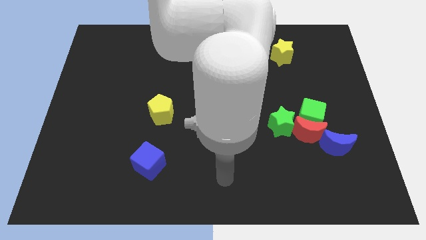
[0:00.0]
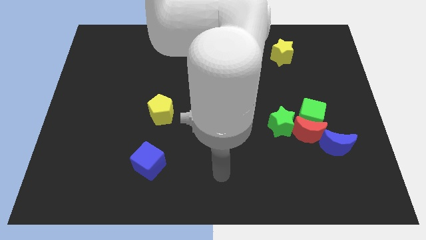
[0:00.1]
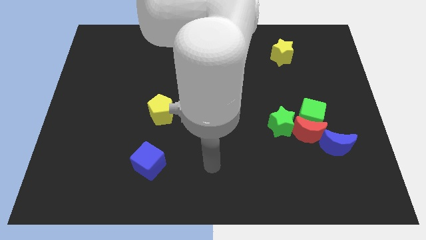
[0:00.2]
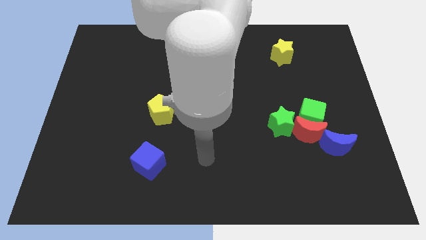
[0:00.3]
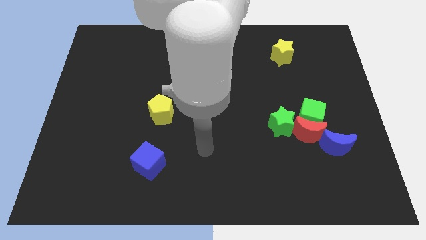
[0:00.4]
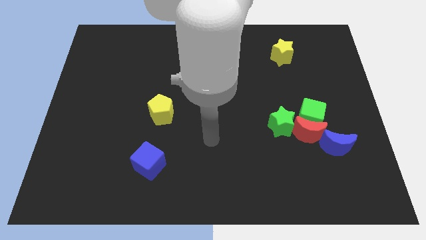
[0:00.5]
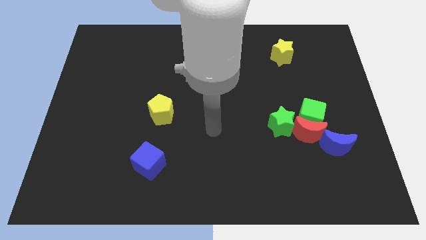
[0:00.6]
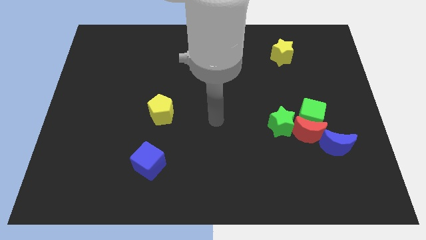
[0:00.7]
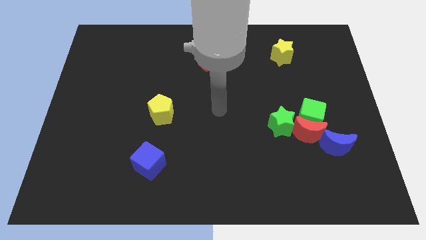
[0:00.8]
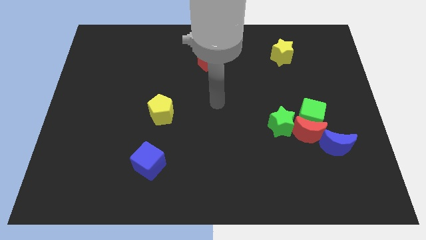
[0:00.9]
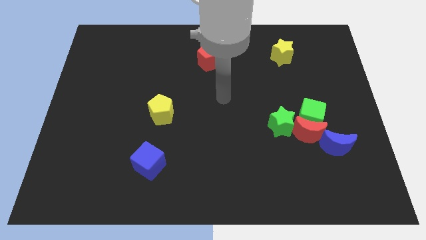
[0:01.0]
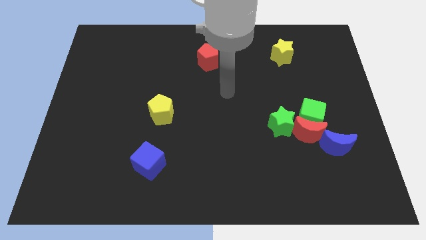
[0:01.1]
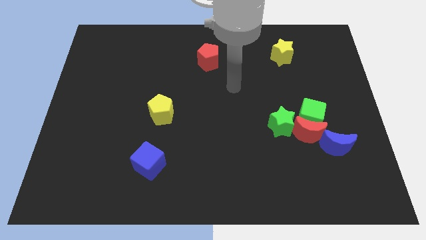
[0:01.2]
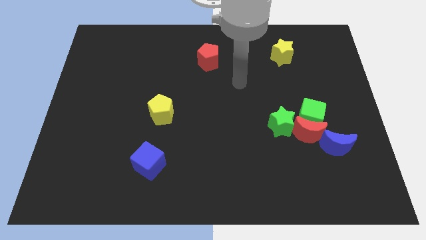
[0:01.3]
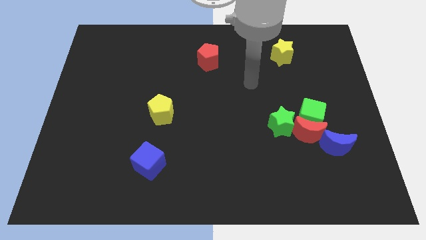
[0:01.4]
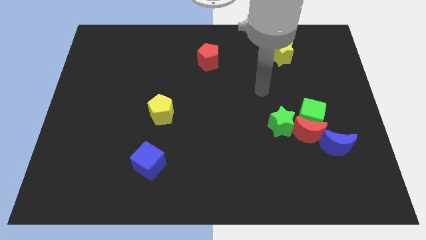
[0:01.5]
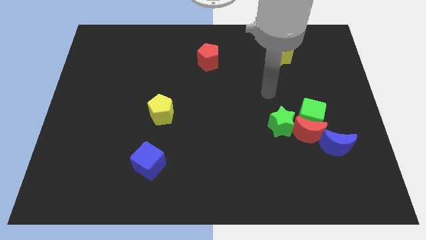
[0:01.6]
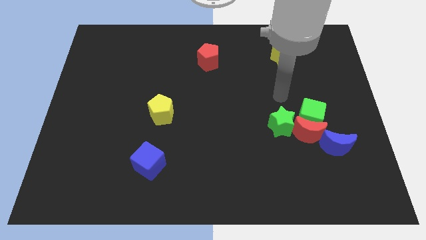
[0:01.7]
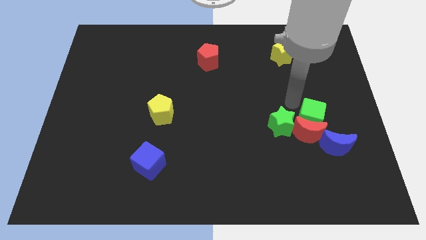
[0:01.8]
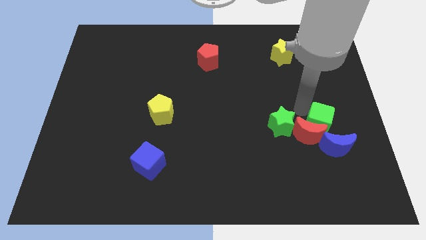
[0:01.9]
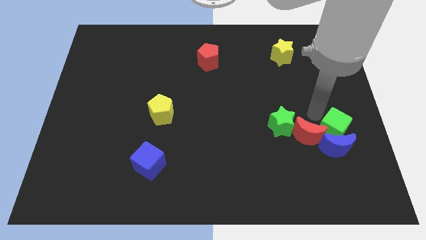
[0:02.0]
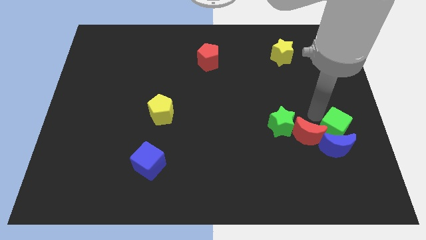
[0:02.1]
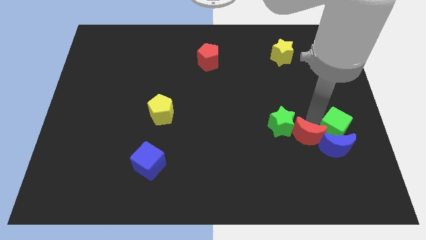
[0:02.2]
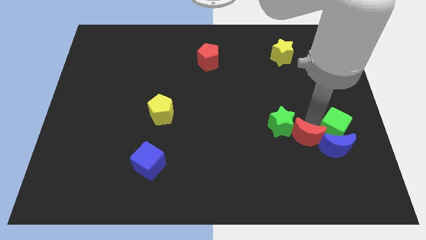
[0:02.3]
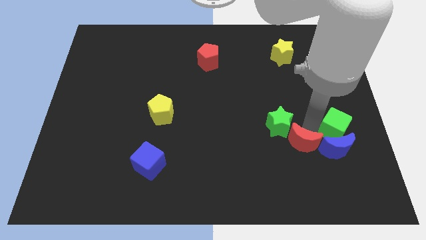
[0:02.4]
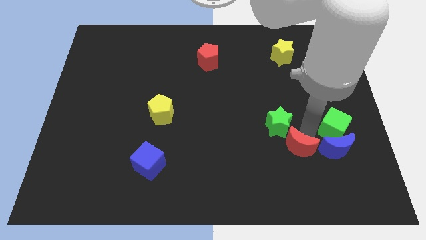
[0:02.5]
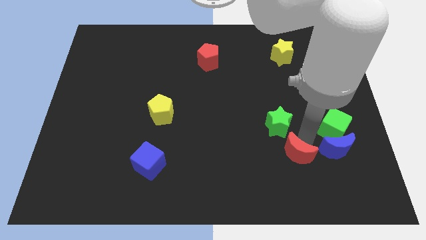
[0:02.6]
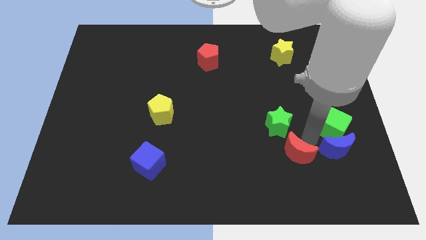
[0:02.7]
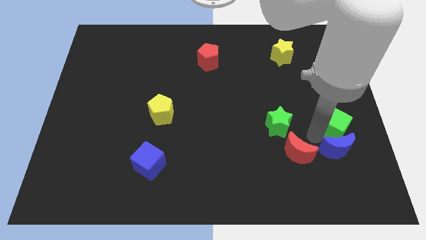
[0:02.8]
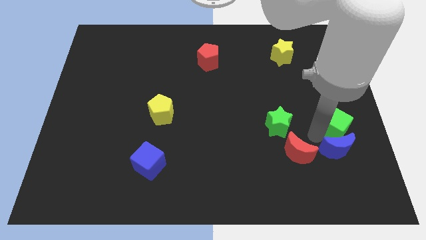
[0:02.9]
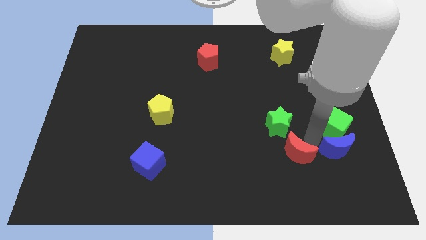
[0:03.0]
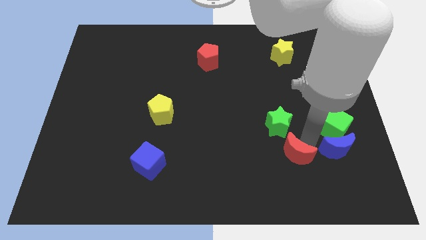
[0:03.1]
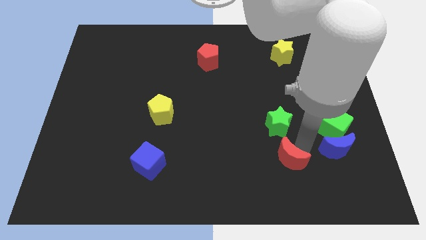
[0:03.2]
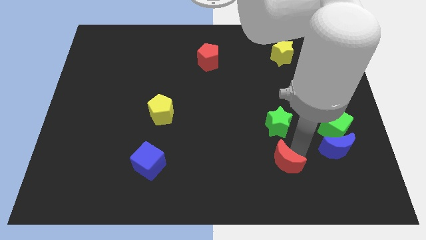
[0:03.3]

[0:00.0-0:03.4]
pull the red moon apart from the clump

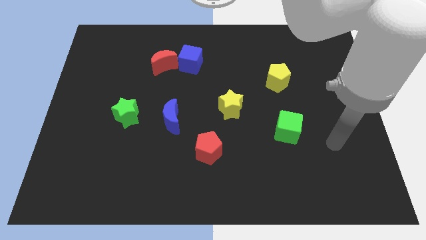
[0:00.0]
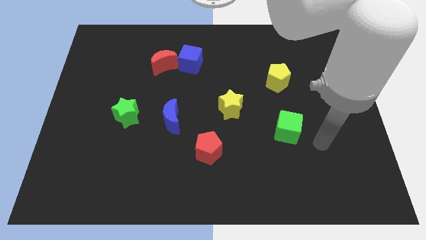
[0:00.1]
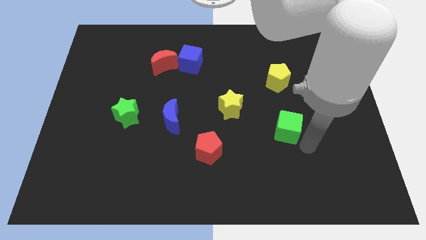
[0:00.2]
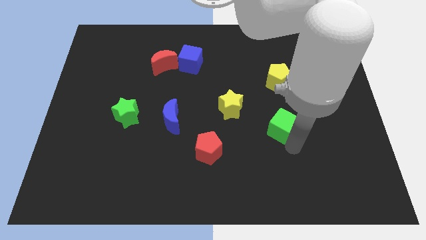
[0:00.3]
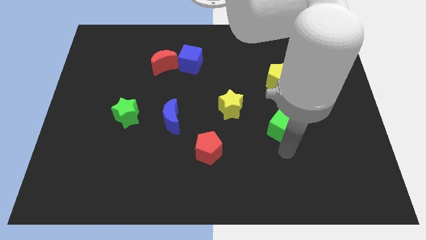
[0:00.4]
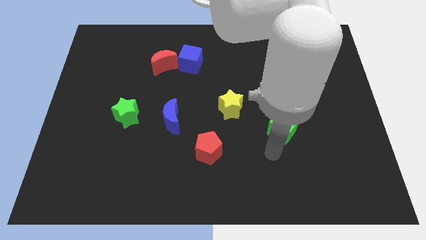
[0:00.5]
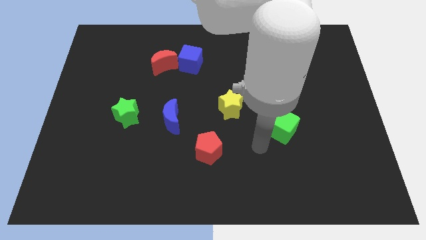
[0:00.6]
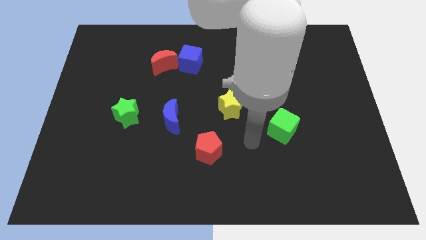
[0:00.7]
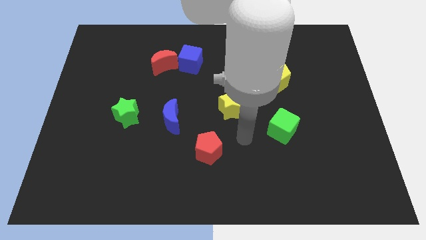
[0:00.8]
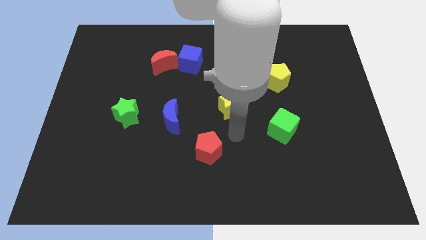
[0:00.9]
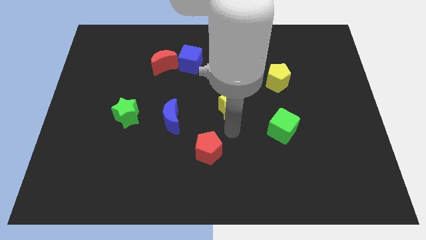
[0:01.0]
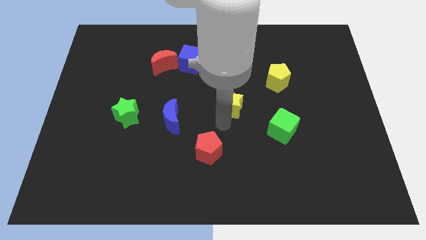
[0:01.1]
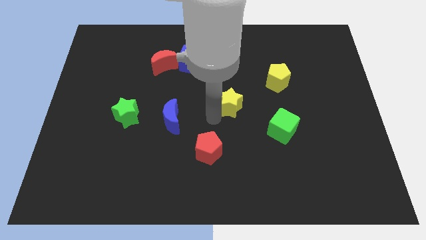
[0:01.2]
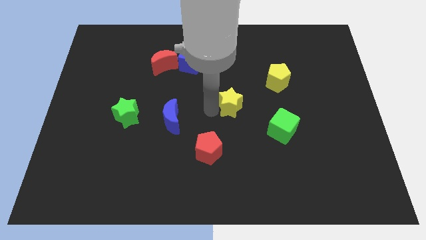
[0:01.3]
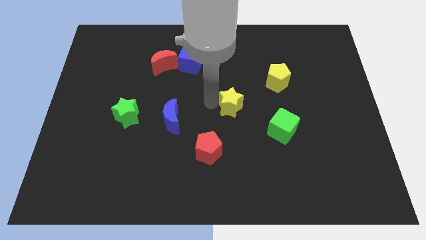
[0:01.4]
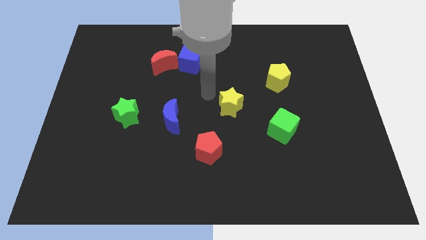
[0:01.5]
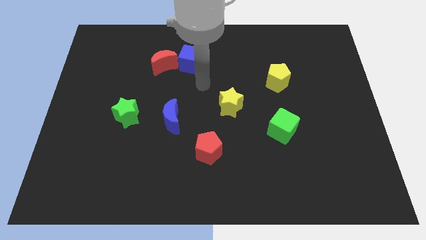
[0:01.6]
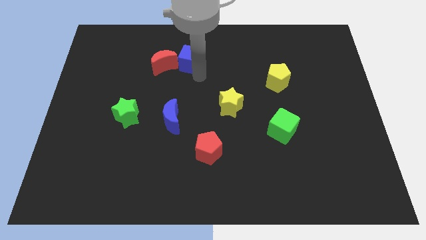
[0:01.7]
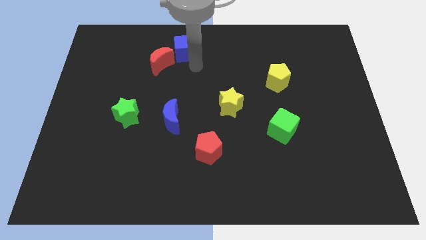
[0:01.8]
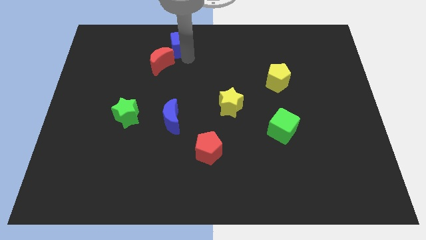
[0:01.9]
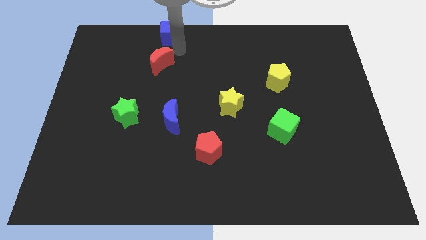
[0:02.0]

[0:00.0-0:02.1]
move the red moon away from the blue cube

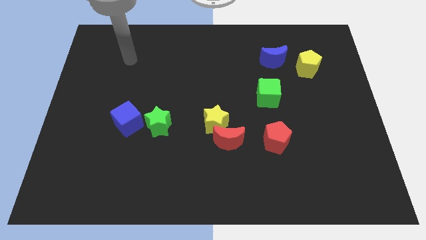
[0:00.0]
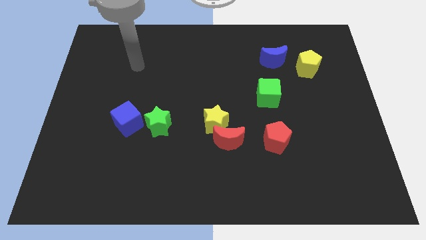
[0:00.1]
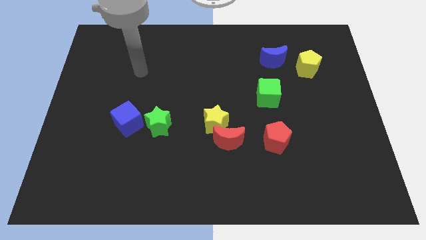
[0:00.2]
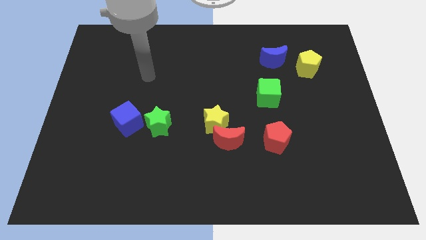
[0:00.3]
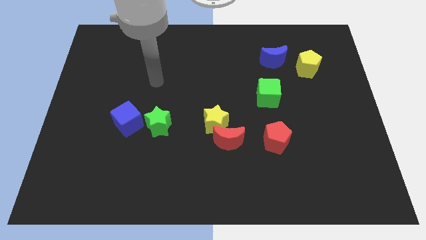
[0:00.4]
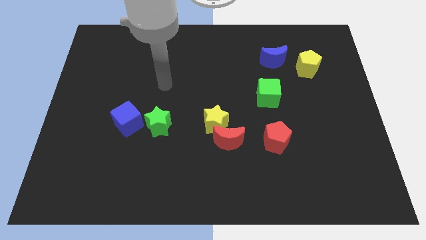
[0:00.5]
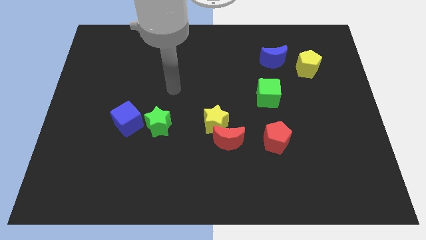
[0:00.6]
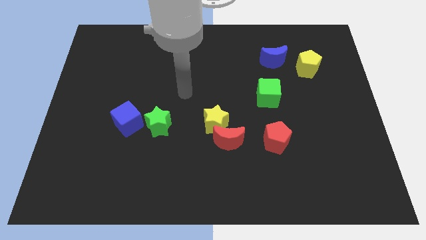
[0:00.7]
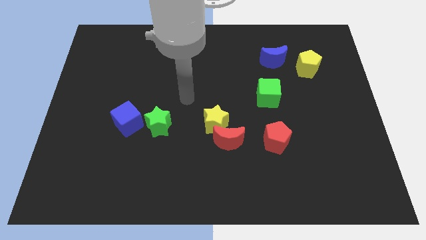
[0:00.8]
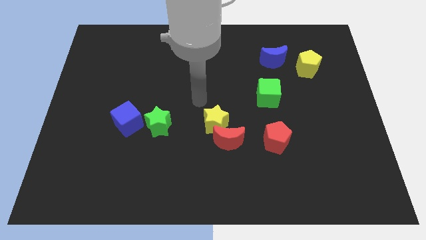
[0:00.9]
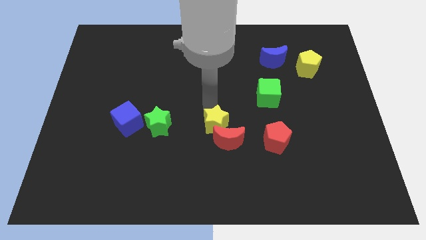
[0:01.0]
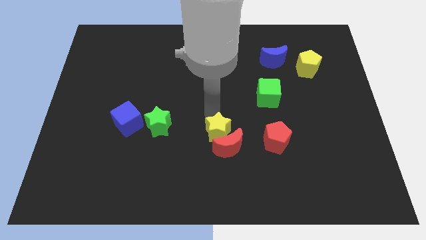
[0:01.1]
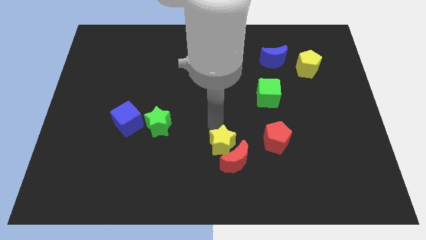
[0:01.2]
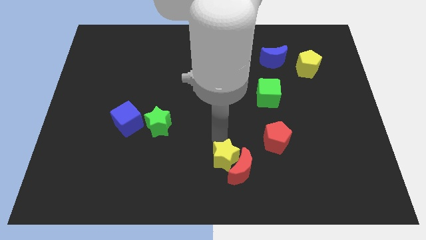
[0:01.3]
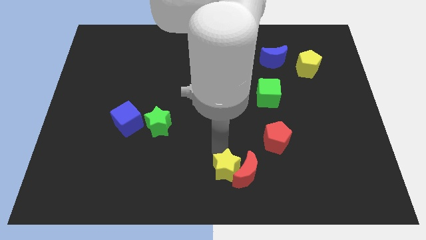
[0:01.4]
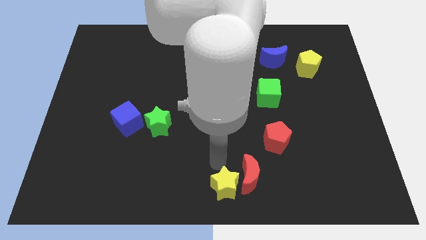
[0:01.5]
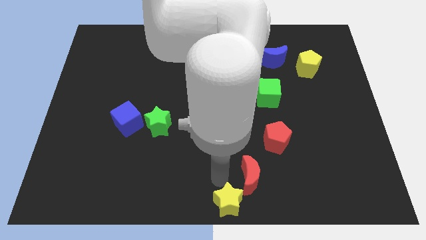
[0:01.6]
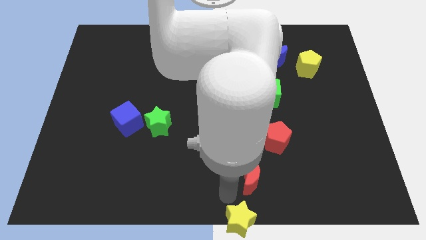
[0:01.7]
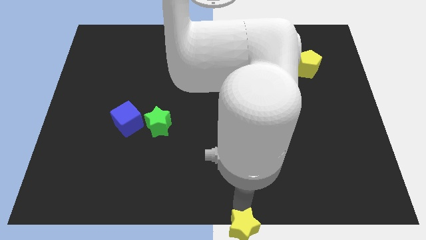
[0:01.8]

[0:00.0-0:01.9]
move the red moon away from the yellow star

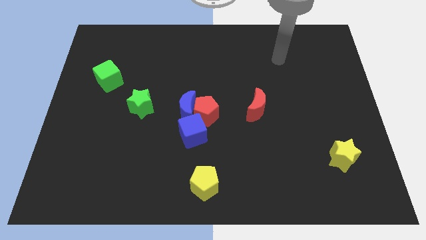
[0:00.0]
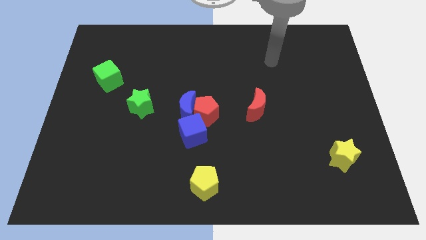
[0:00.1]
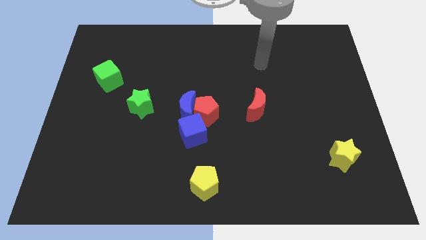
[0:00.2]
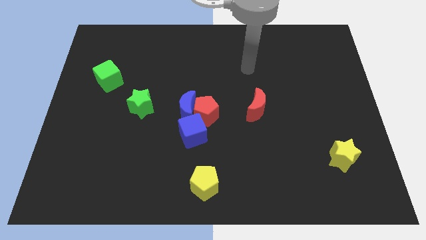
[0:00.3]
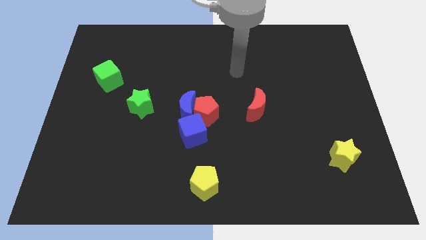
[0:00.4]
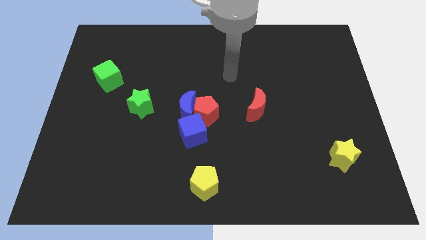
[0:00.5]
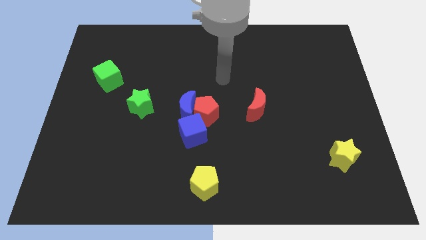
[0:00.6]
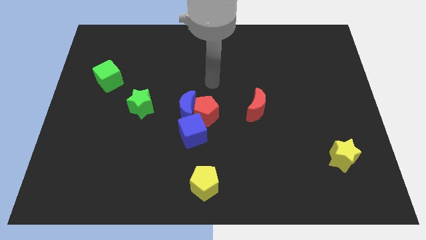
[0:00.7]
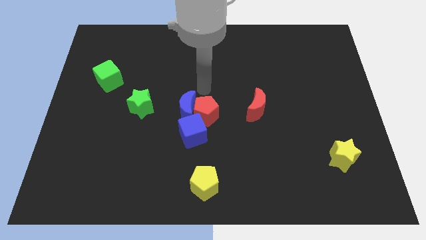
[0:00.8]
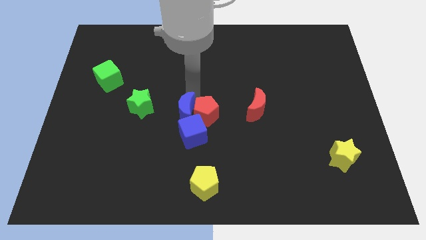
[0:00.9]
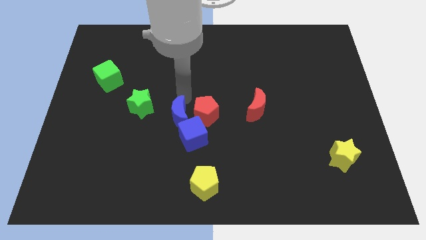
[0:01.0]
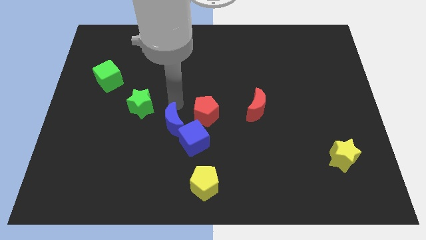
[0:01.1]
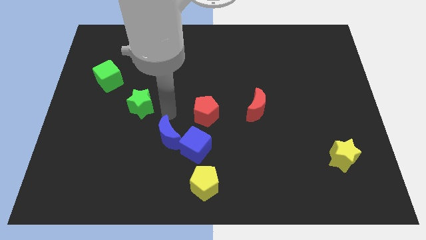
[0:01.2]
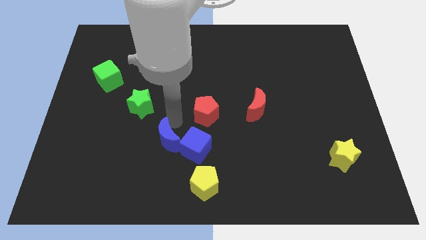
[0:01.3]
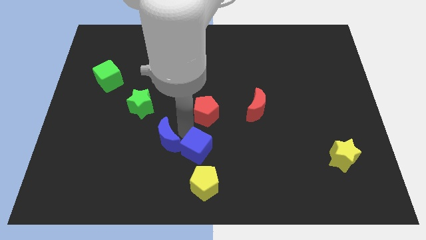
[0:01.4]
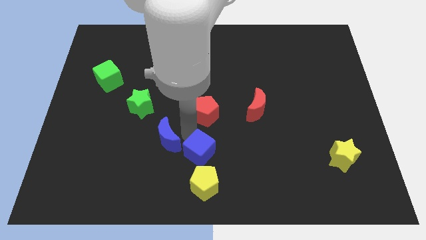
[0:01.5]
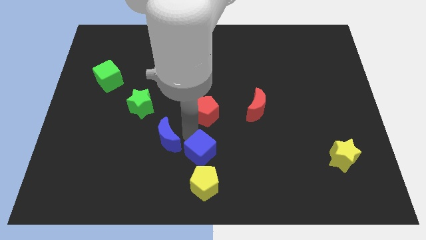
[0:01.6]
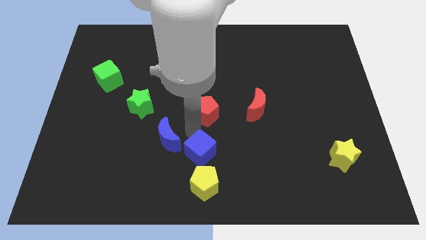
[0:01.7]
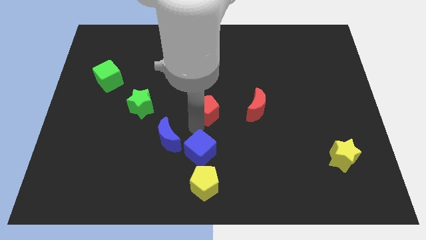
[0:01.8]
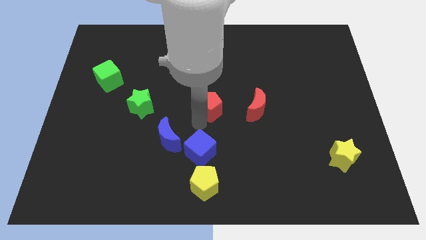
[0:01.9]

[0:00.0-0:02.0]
pull the red pentagon apart from the blue moon and blue cube

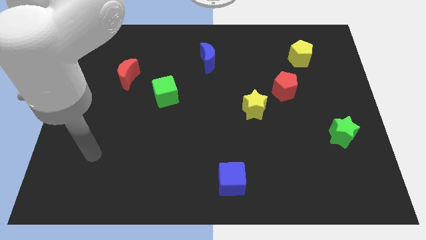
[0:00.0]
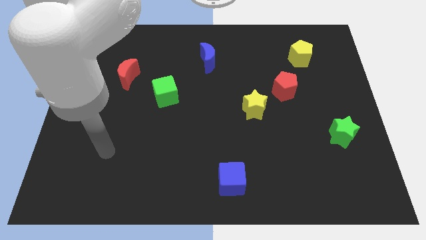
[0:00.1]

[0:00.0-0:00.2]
pull the red pentagon apart from the yellow star
